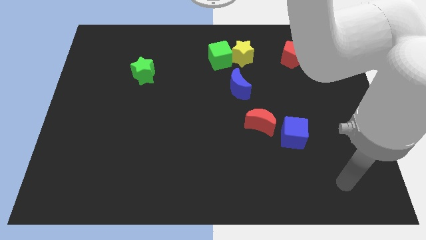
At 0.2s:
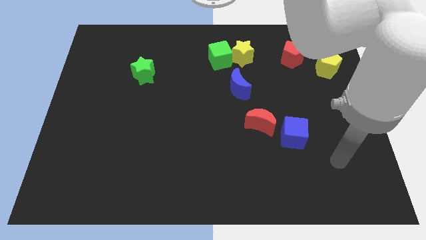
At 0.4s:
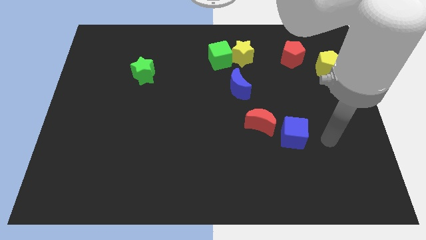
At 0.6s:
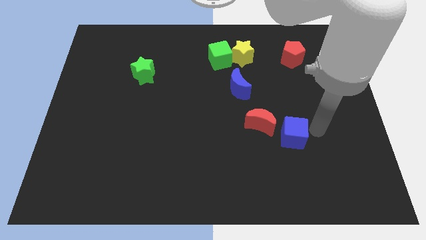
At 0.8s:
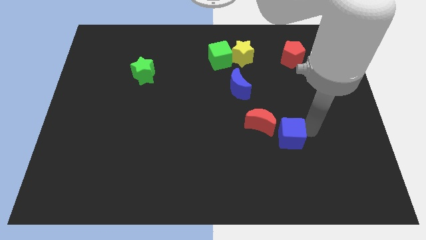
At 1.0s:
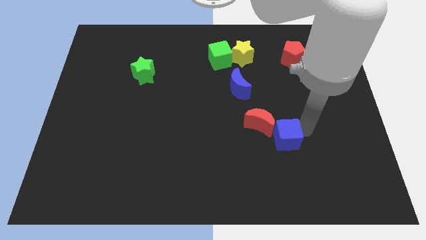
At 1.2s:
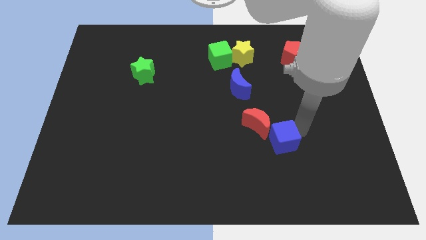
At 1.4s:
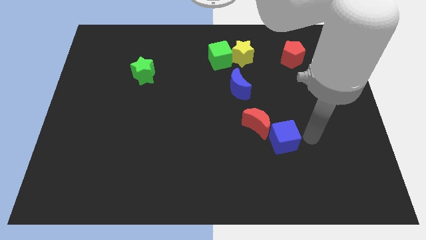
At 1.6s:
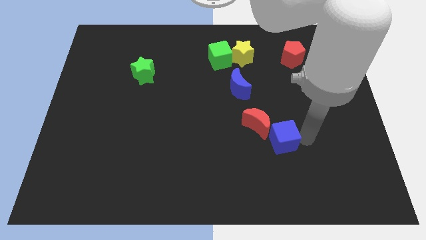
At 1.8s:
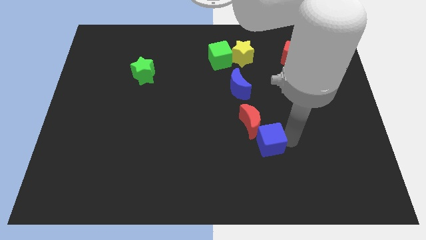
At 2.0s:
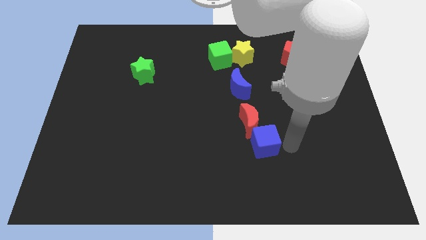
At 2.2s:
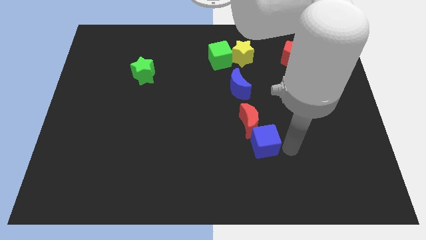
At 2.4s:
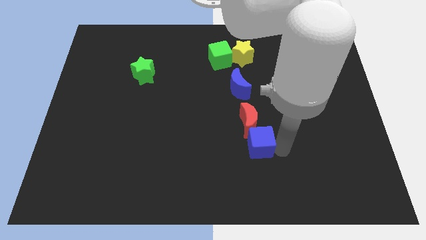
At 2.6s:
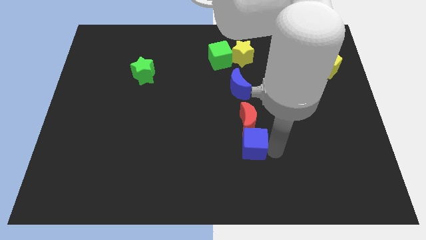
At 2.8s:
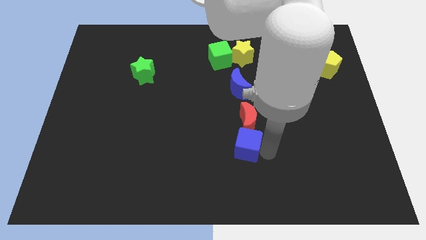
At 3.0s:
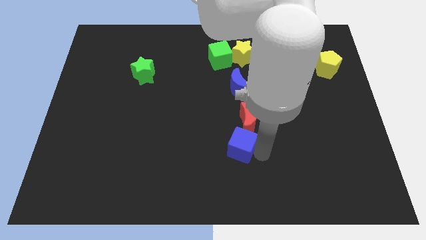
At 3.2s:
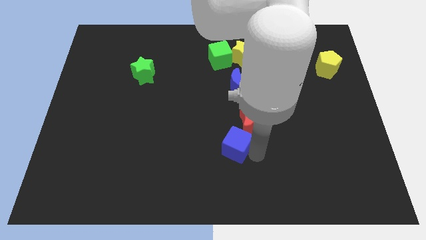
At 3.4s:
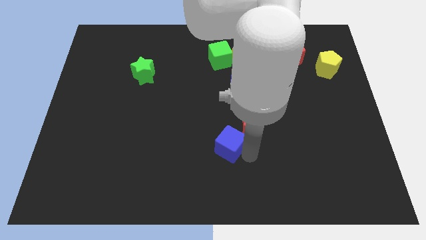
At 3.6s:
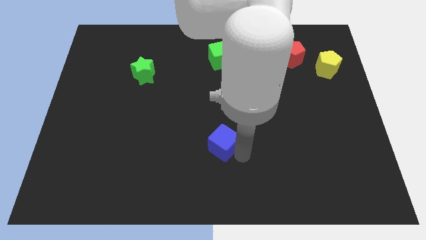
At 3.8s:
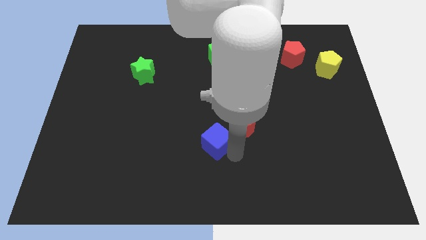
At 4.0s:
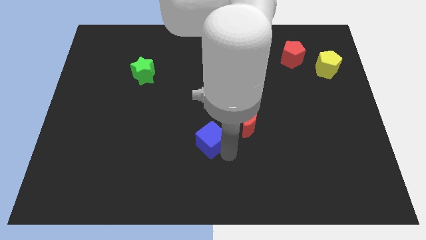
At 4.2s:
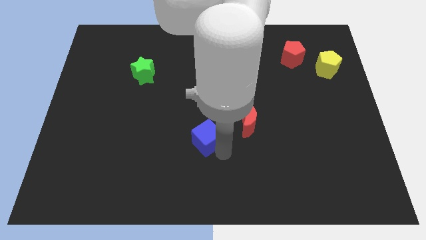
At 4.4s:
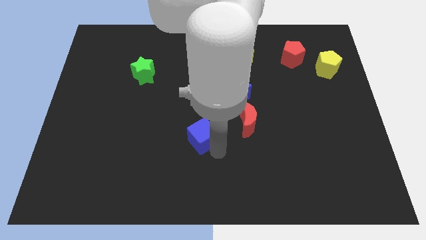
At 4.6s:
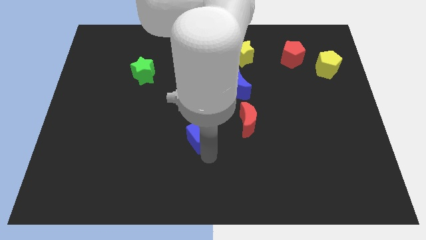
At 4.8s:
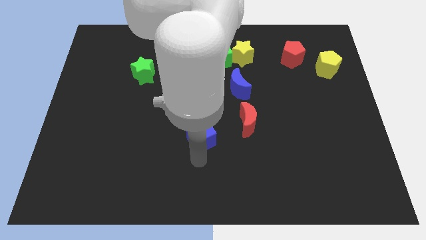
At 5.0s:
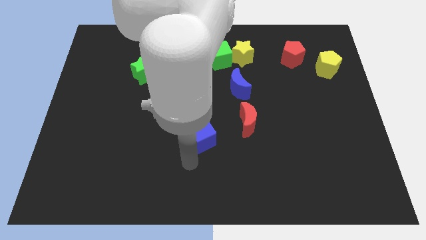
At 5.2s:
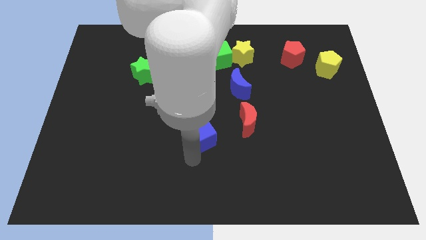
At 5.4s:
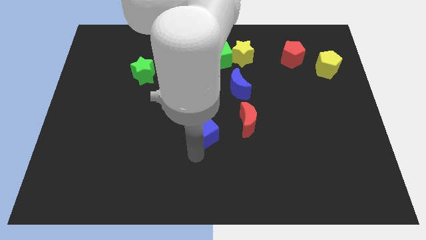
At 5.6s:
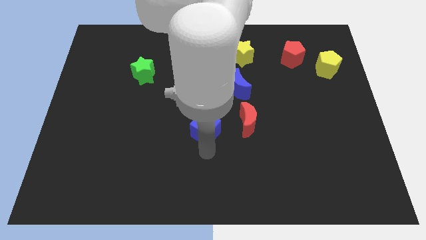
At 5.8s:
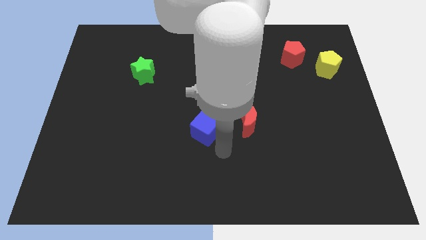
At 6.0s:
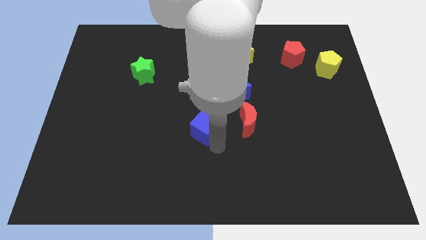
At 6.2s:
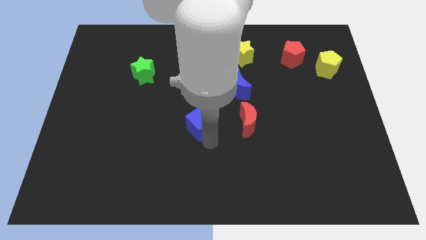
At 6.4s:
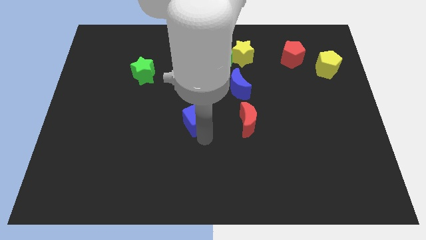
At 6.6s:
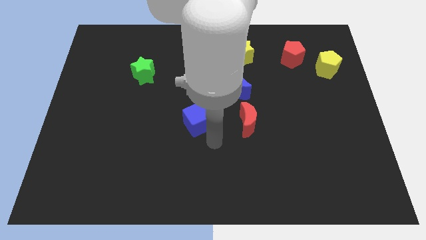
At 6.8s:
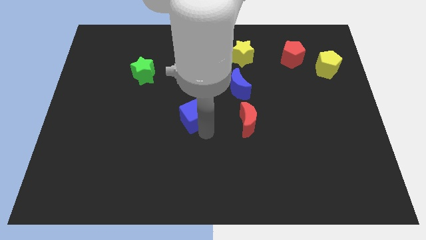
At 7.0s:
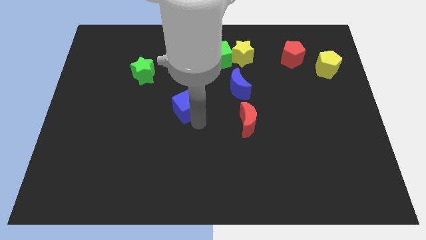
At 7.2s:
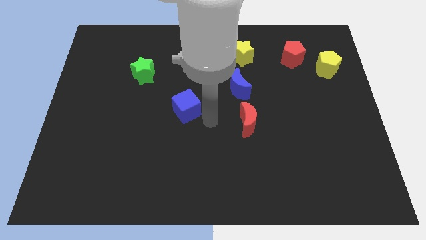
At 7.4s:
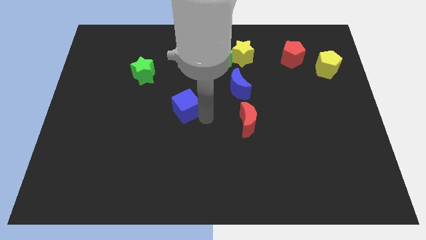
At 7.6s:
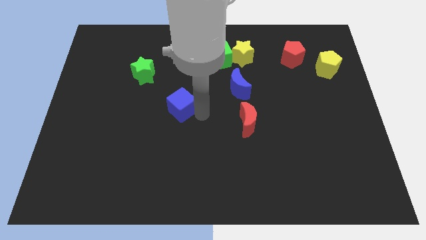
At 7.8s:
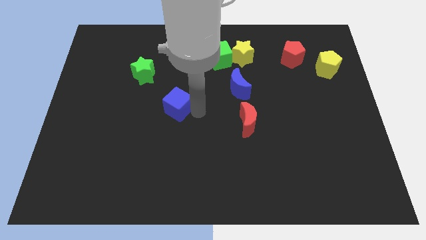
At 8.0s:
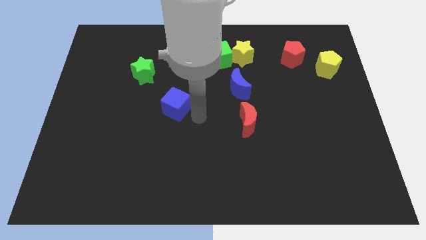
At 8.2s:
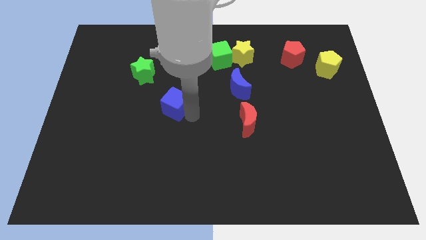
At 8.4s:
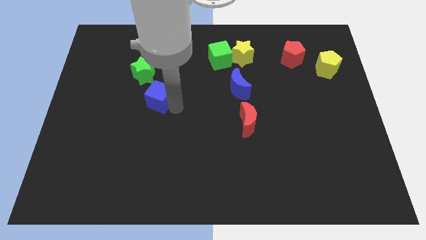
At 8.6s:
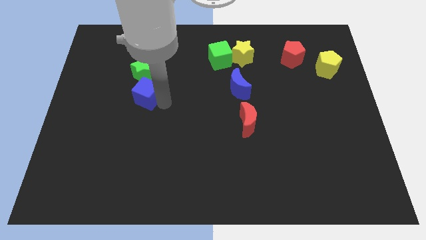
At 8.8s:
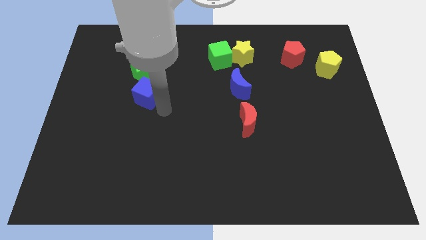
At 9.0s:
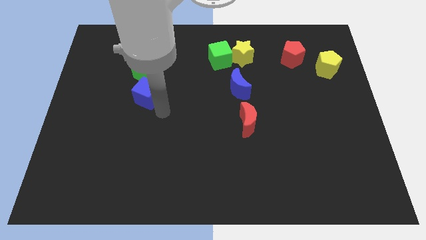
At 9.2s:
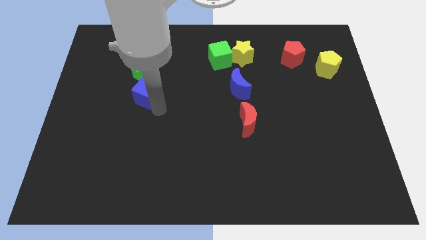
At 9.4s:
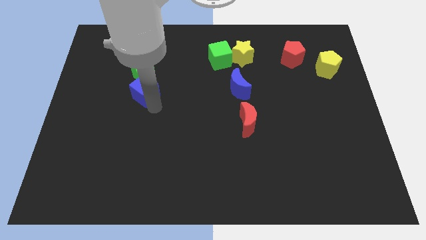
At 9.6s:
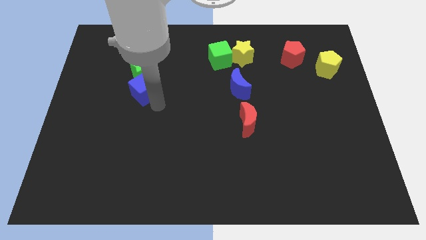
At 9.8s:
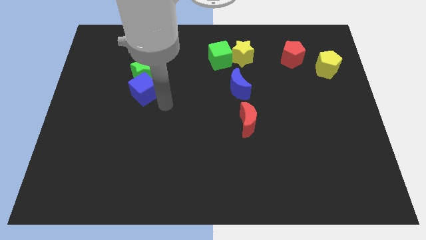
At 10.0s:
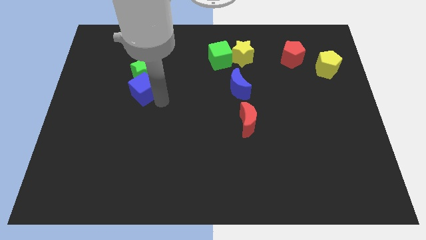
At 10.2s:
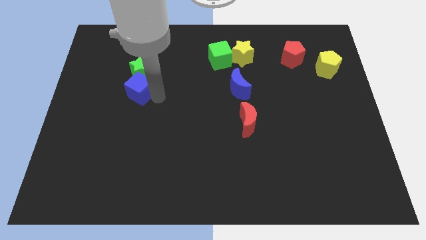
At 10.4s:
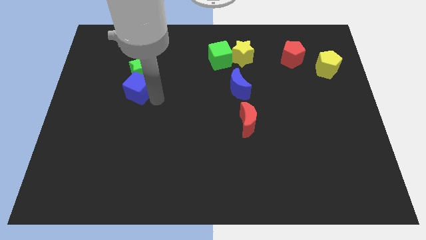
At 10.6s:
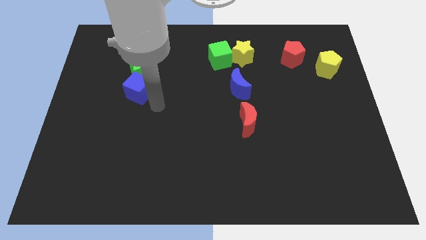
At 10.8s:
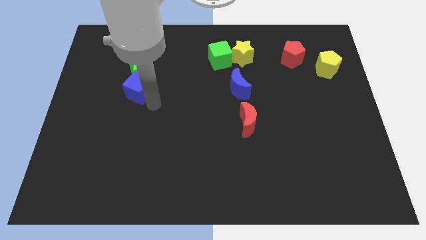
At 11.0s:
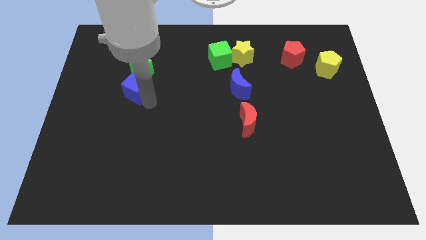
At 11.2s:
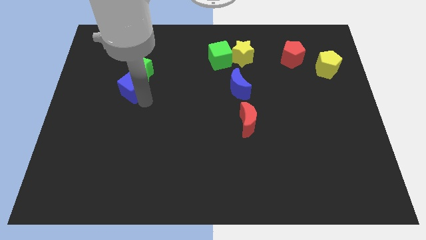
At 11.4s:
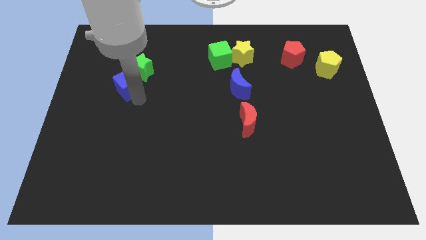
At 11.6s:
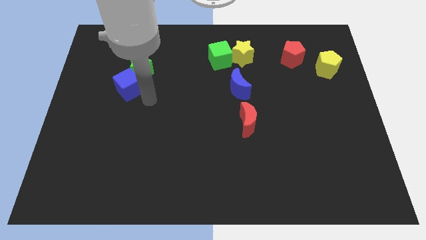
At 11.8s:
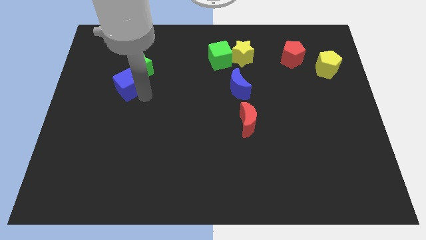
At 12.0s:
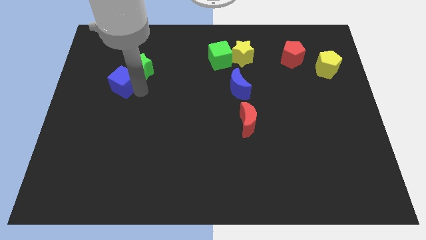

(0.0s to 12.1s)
push the blue cube to the left of the green star

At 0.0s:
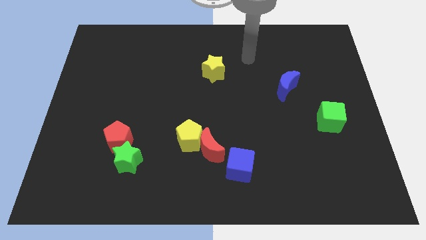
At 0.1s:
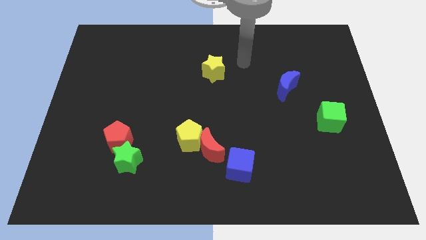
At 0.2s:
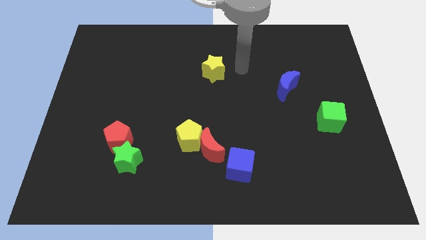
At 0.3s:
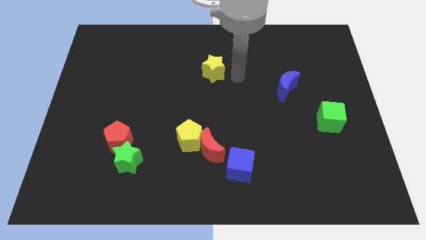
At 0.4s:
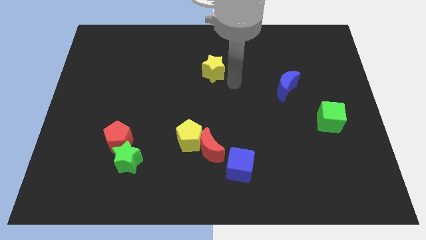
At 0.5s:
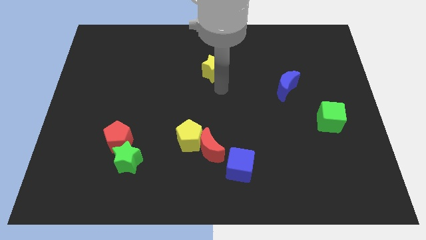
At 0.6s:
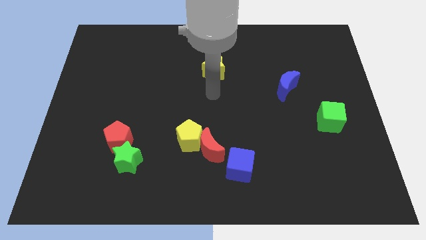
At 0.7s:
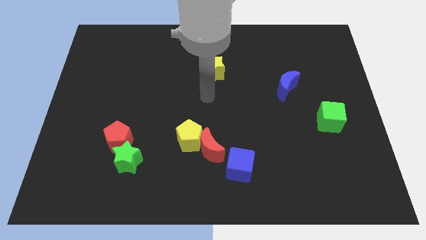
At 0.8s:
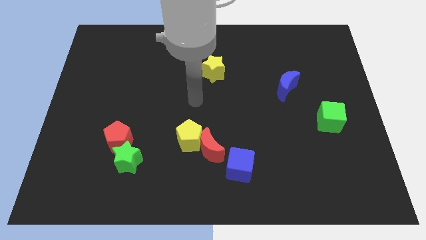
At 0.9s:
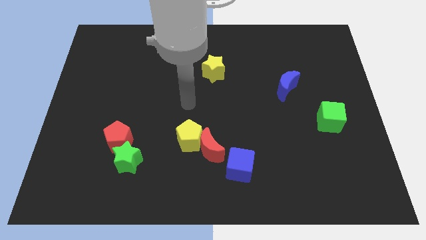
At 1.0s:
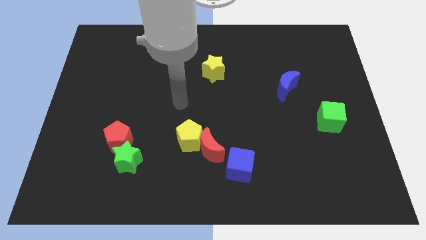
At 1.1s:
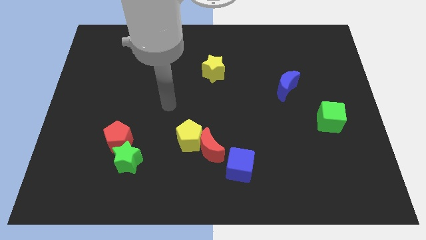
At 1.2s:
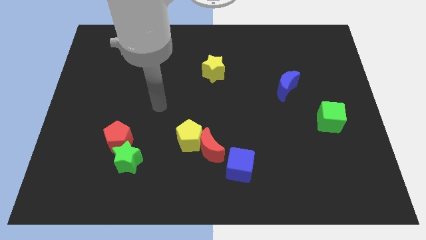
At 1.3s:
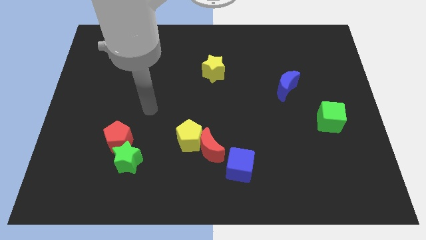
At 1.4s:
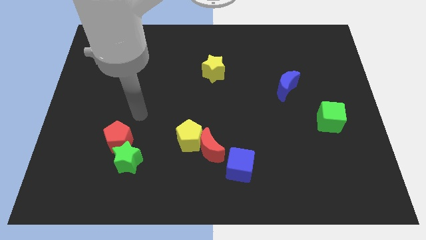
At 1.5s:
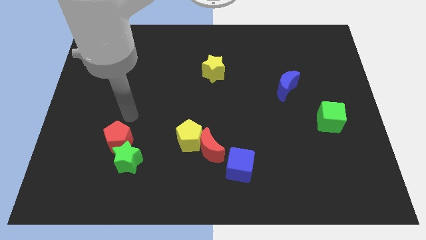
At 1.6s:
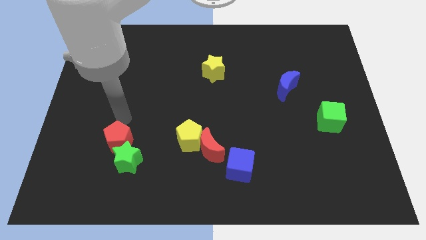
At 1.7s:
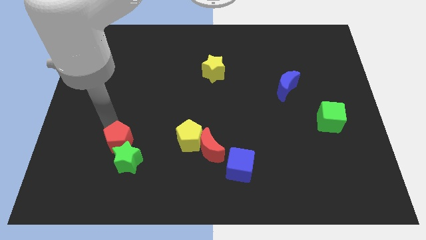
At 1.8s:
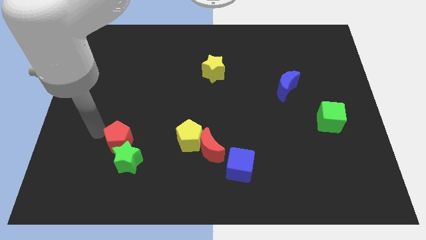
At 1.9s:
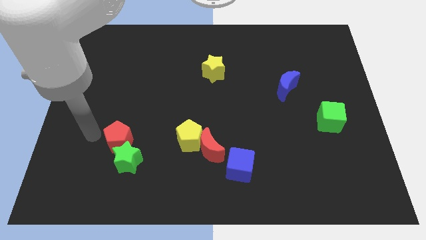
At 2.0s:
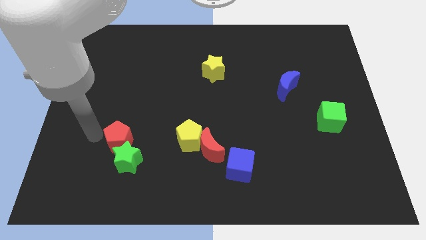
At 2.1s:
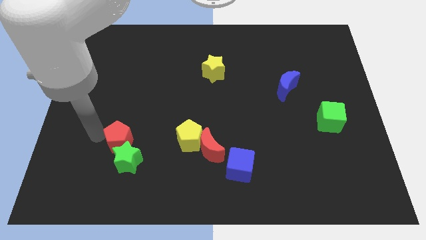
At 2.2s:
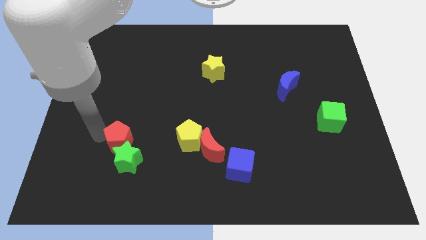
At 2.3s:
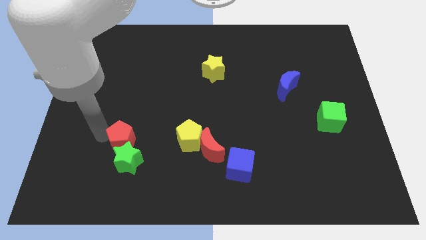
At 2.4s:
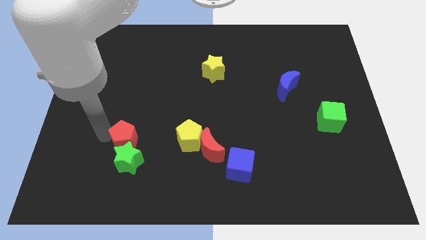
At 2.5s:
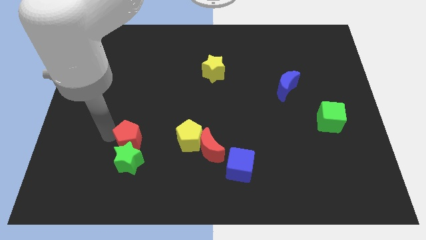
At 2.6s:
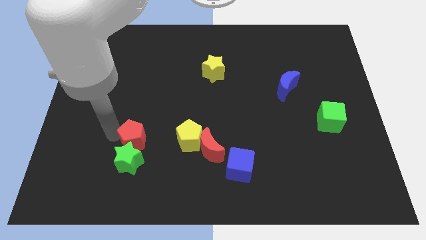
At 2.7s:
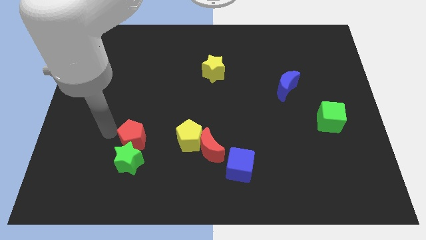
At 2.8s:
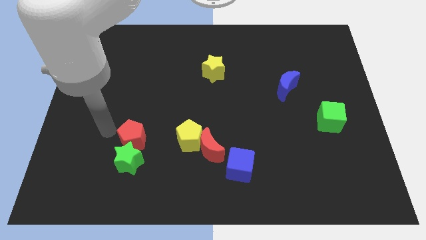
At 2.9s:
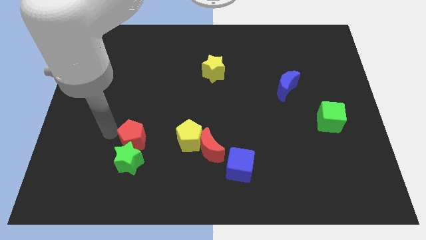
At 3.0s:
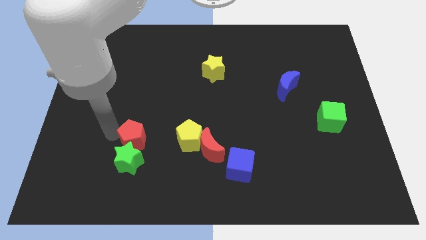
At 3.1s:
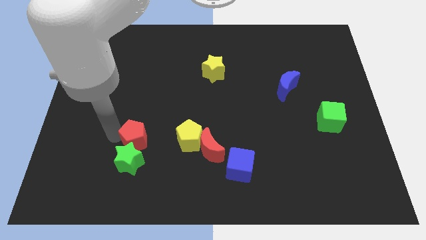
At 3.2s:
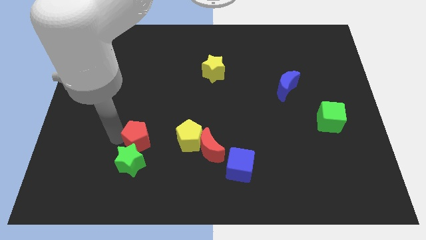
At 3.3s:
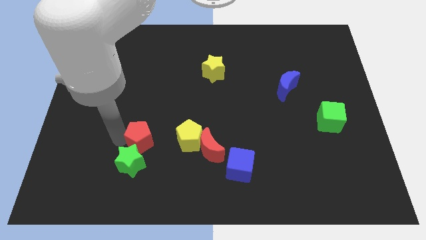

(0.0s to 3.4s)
slide the red pentagon to the left side of the red moon
